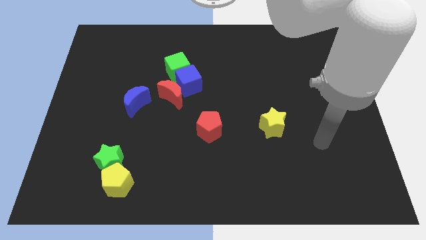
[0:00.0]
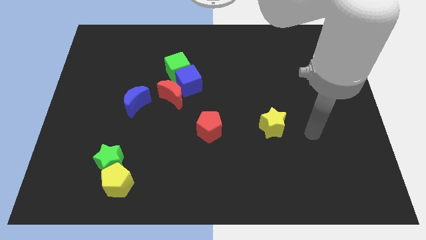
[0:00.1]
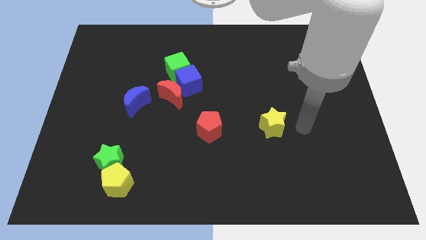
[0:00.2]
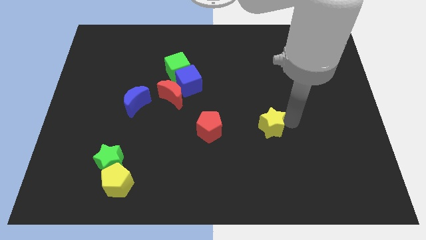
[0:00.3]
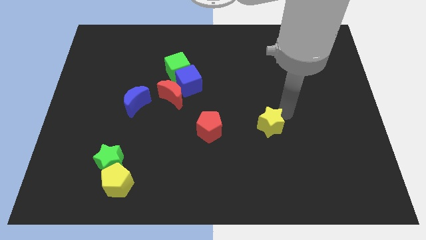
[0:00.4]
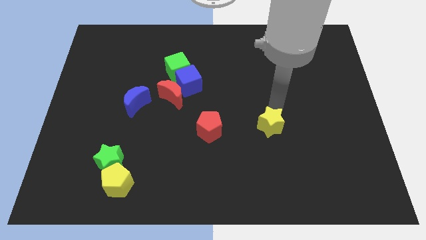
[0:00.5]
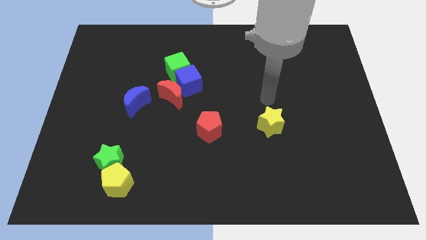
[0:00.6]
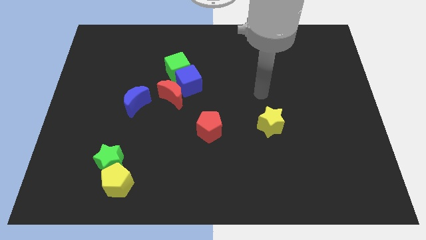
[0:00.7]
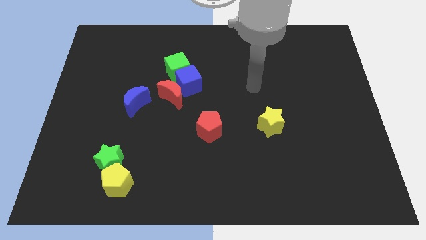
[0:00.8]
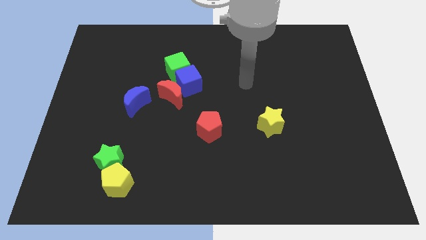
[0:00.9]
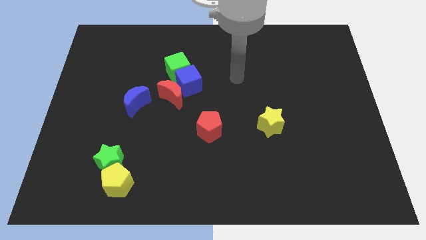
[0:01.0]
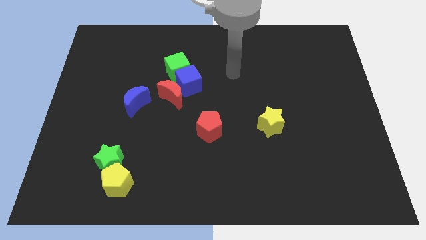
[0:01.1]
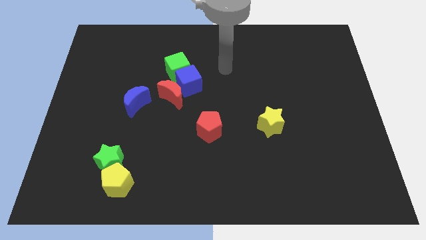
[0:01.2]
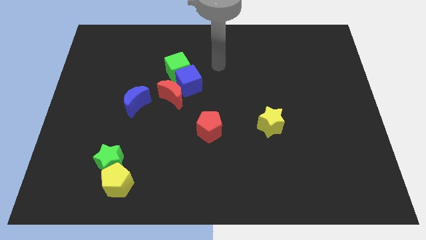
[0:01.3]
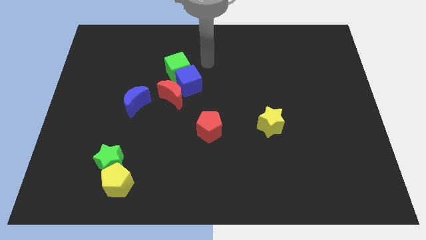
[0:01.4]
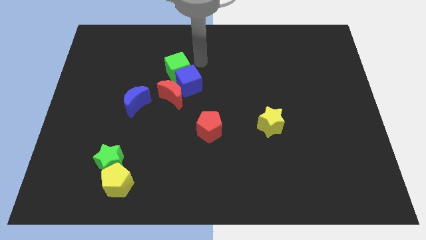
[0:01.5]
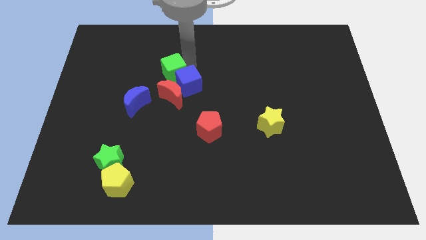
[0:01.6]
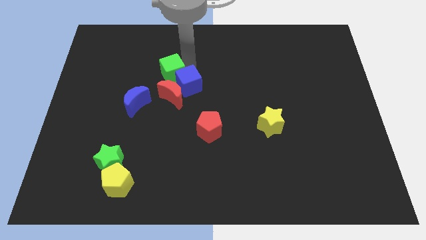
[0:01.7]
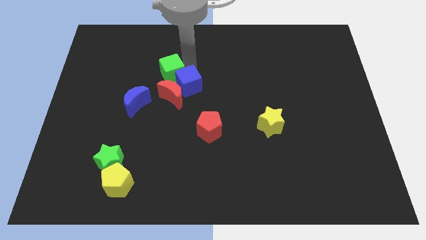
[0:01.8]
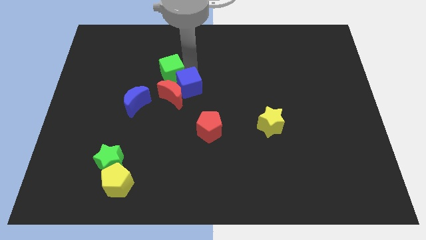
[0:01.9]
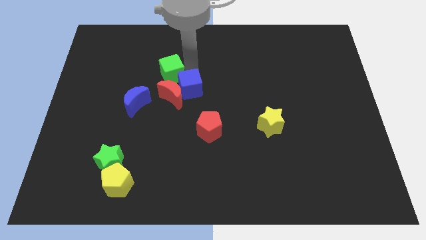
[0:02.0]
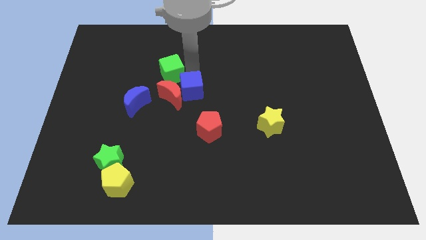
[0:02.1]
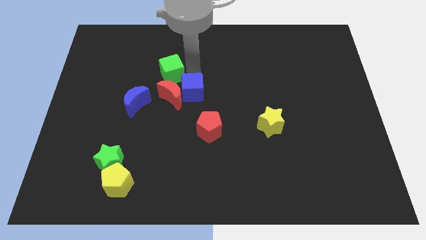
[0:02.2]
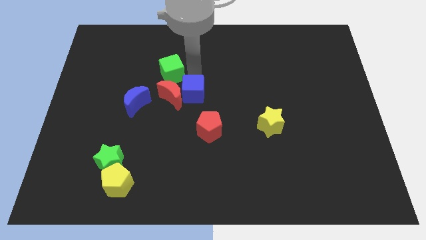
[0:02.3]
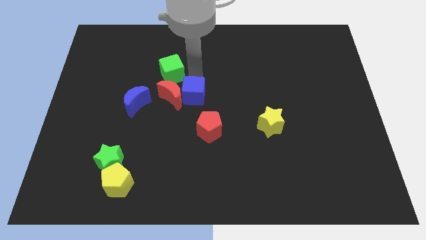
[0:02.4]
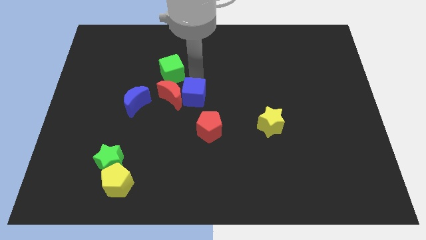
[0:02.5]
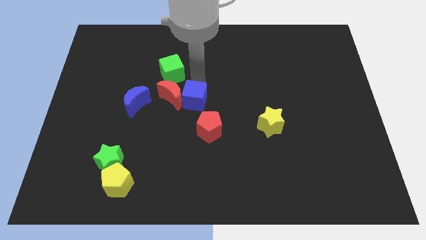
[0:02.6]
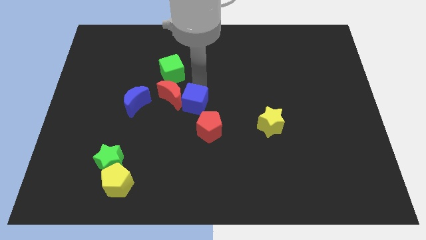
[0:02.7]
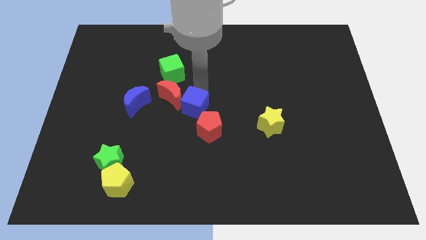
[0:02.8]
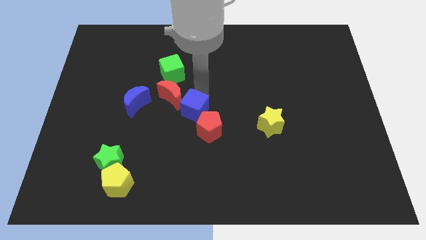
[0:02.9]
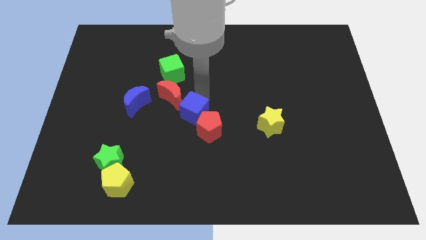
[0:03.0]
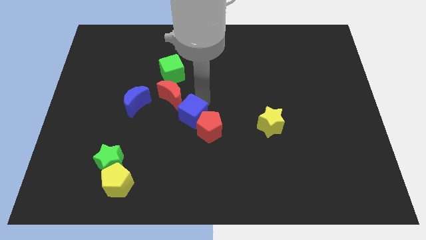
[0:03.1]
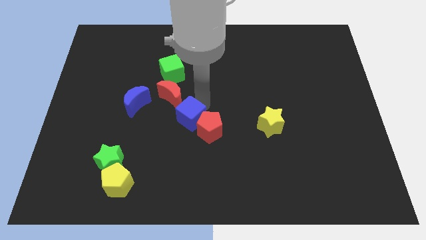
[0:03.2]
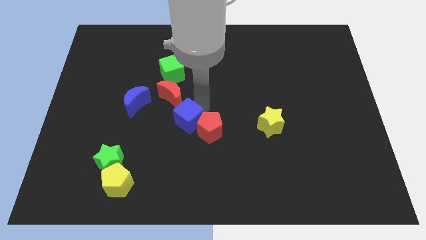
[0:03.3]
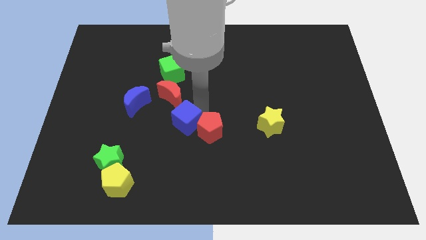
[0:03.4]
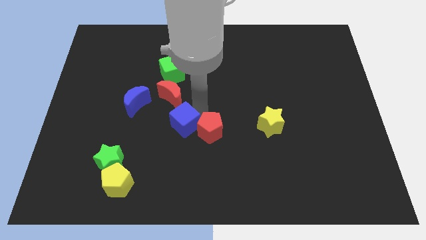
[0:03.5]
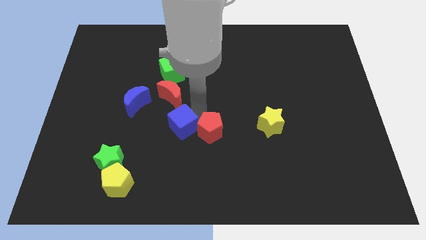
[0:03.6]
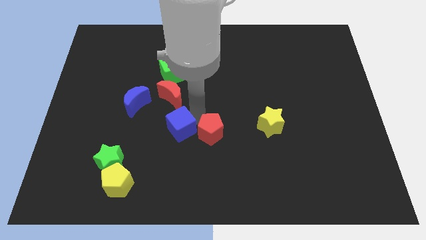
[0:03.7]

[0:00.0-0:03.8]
move the blue cube a bit down and to the left diagonally

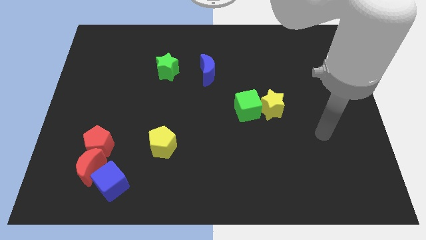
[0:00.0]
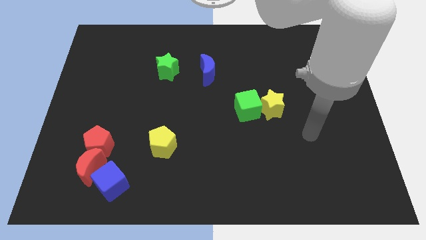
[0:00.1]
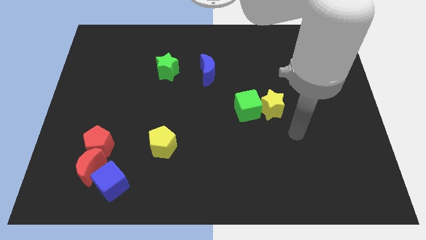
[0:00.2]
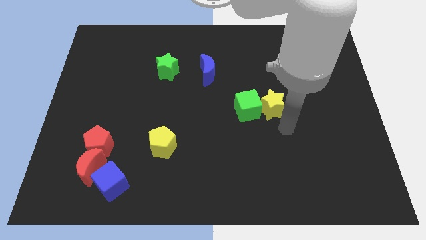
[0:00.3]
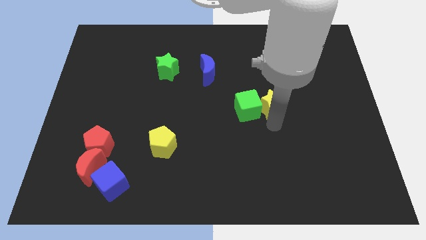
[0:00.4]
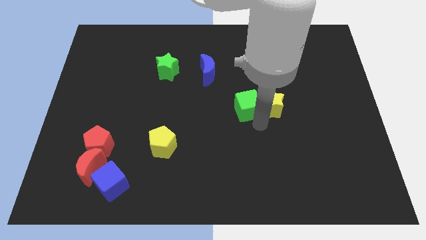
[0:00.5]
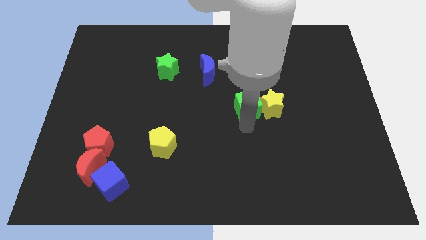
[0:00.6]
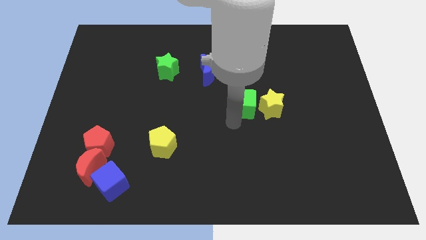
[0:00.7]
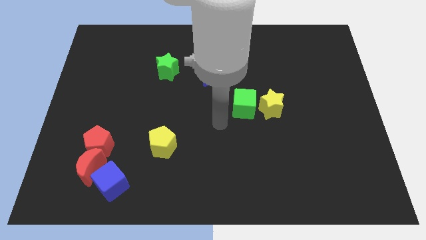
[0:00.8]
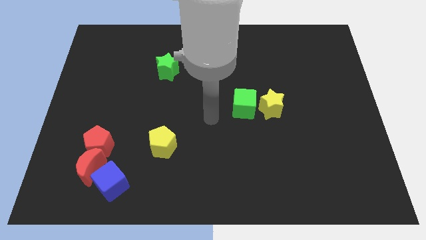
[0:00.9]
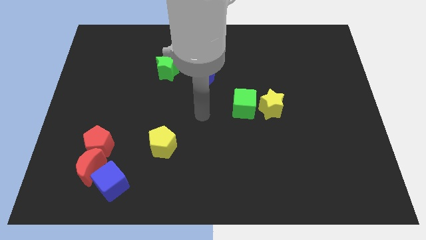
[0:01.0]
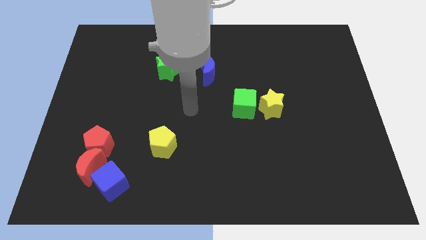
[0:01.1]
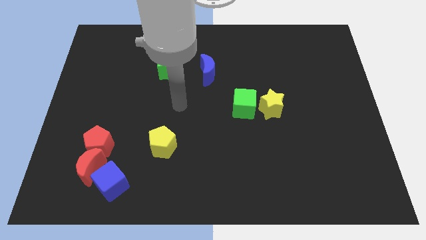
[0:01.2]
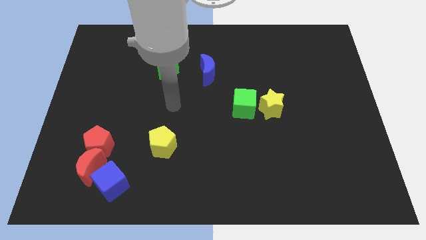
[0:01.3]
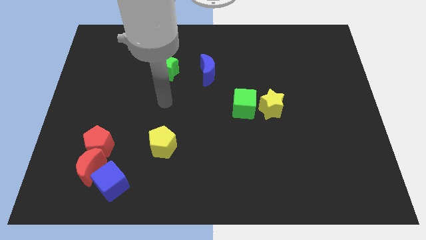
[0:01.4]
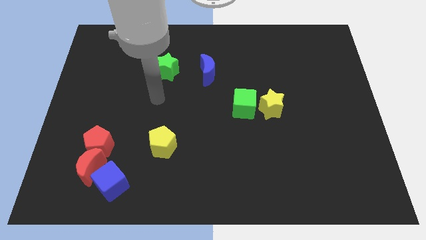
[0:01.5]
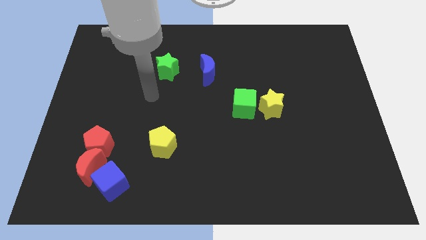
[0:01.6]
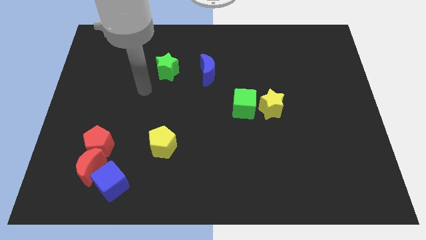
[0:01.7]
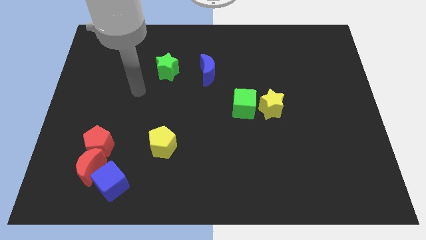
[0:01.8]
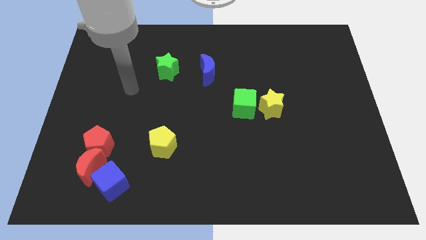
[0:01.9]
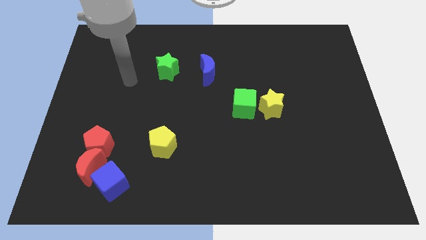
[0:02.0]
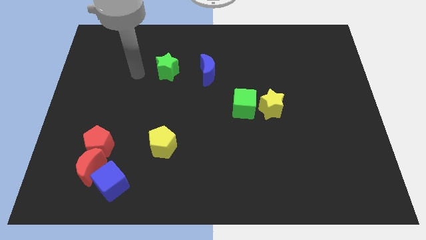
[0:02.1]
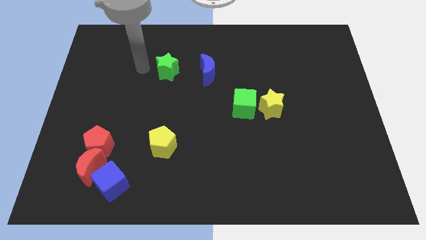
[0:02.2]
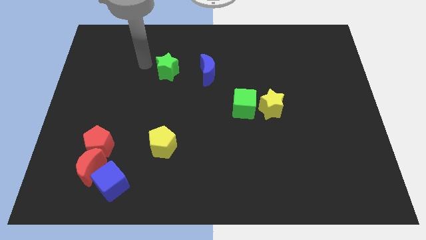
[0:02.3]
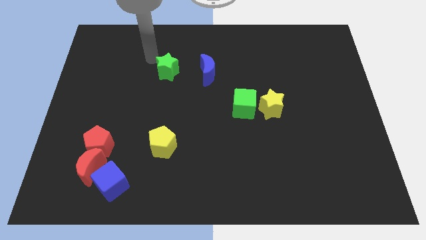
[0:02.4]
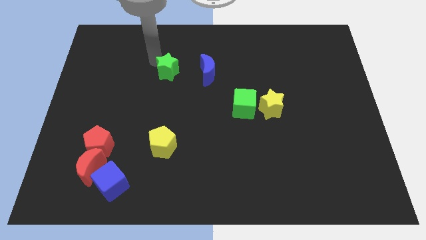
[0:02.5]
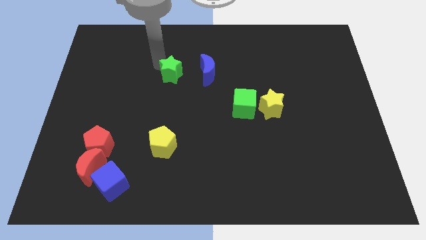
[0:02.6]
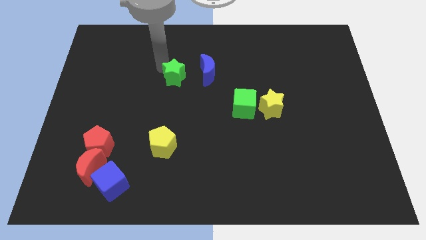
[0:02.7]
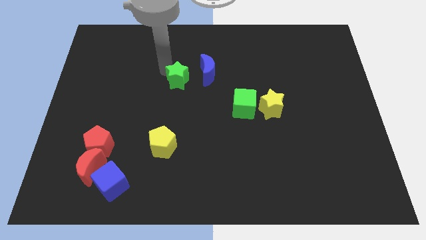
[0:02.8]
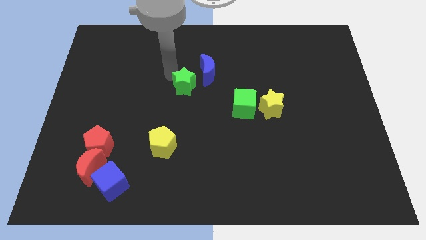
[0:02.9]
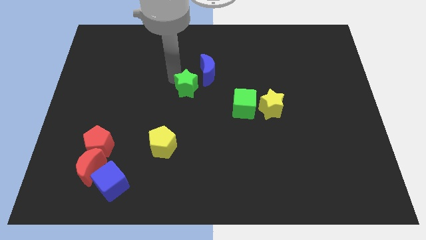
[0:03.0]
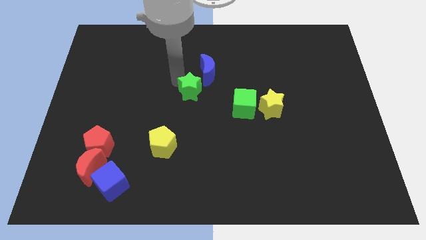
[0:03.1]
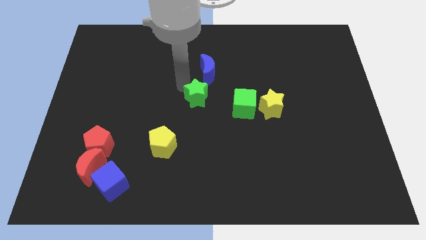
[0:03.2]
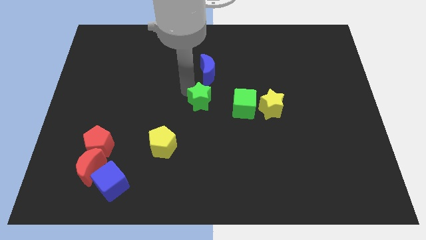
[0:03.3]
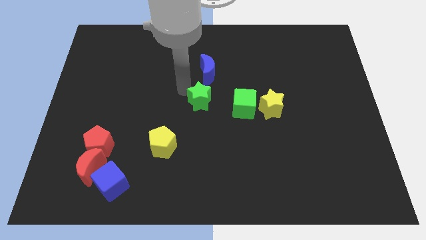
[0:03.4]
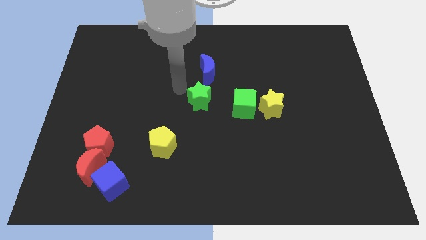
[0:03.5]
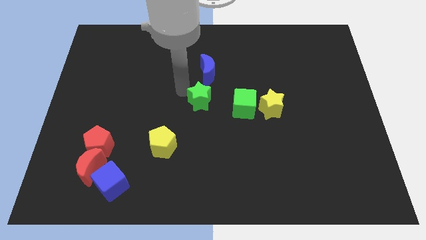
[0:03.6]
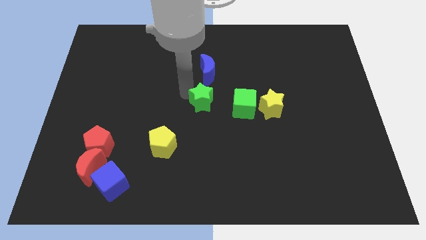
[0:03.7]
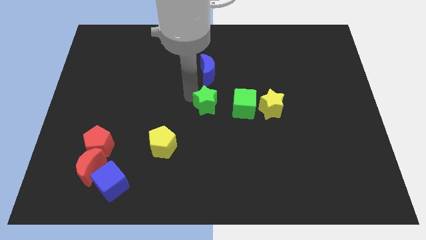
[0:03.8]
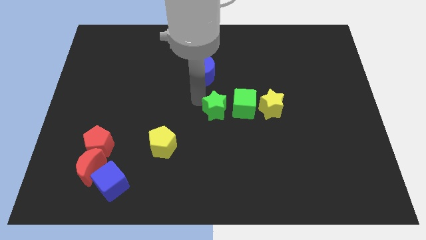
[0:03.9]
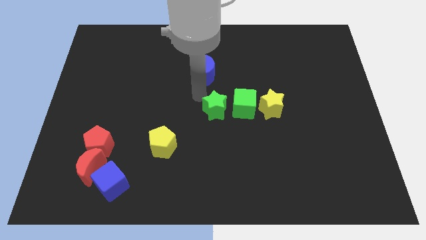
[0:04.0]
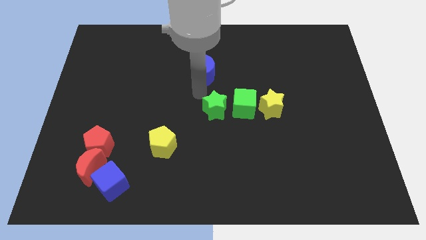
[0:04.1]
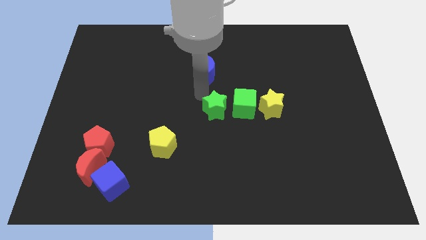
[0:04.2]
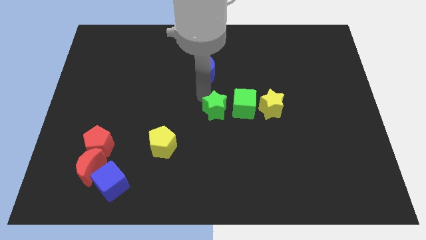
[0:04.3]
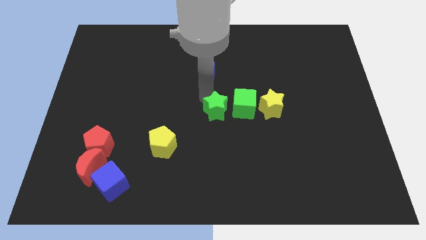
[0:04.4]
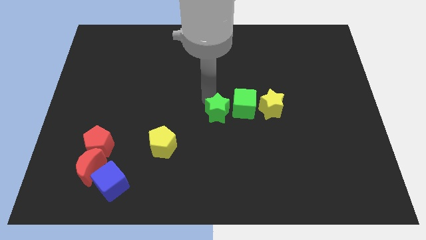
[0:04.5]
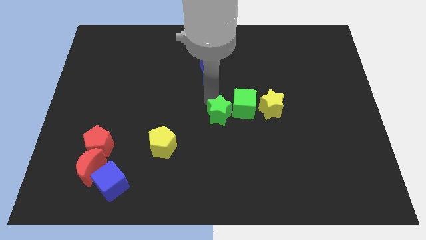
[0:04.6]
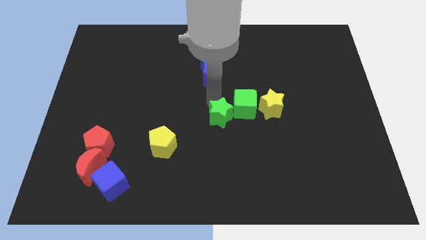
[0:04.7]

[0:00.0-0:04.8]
slide the green star diagonally downwards and right
